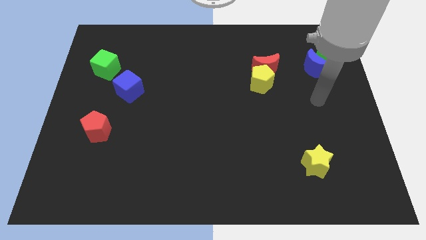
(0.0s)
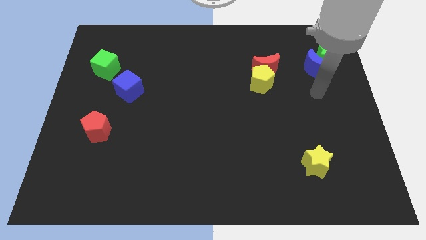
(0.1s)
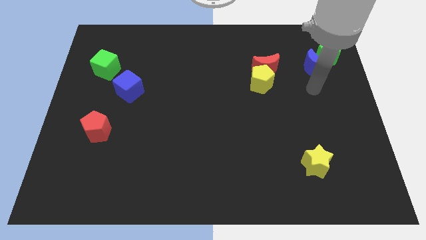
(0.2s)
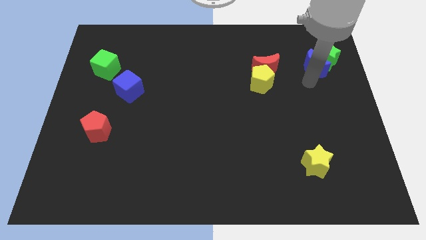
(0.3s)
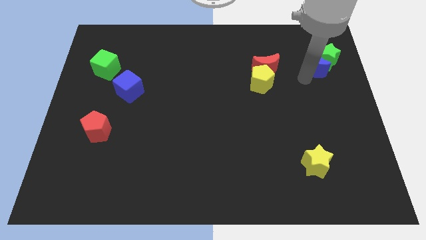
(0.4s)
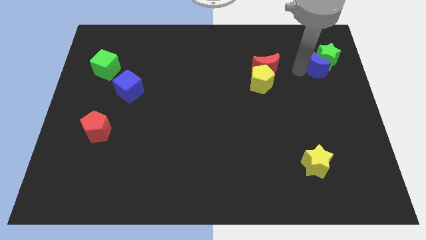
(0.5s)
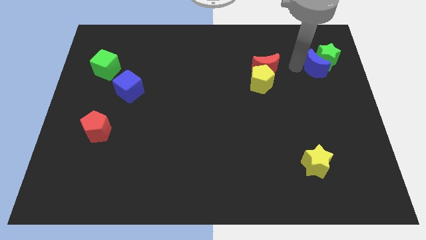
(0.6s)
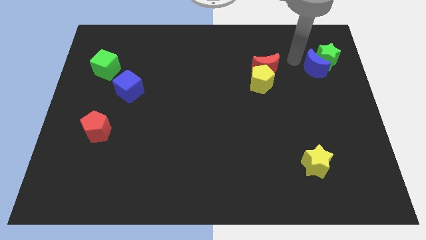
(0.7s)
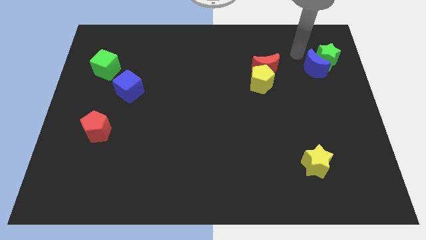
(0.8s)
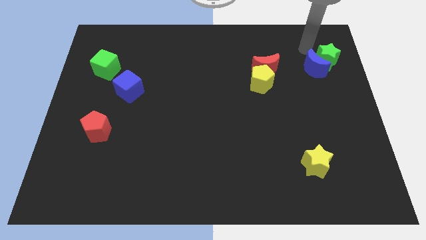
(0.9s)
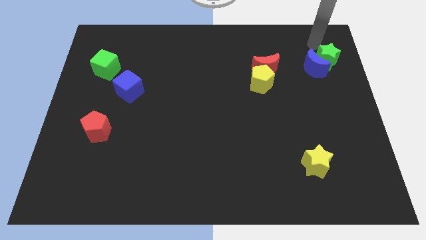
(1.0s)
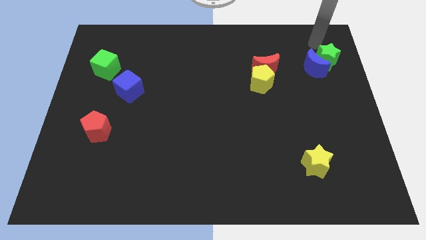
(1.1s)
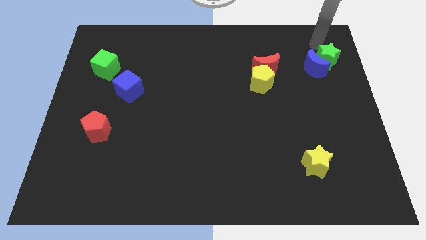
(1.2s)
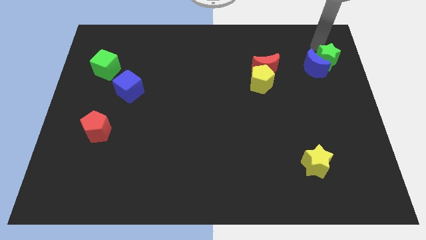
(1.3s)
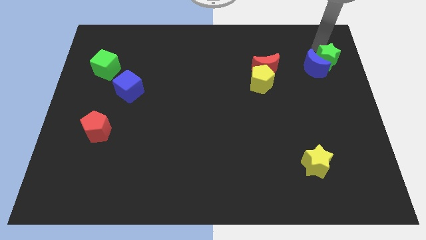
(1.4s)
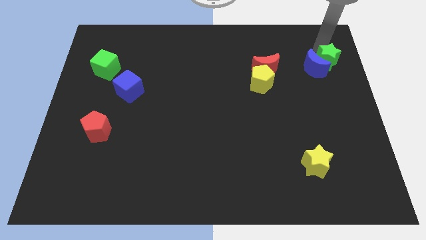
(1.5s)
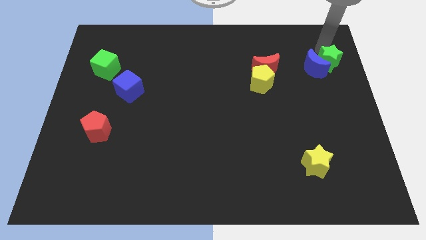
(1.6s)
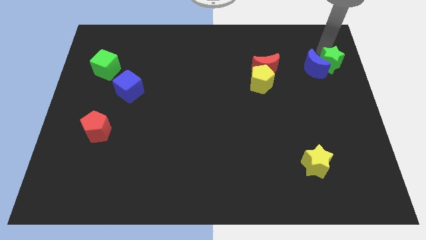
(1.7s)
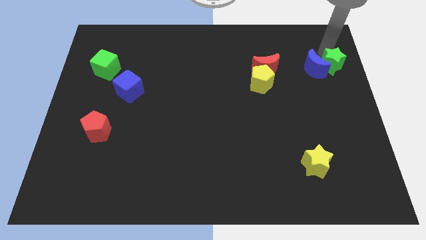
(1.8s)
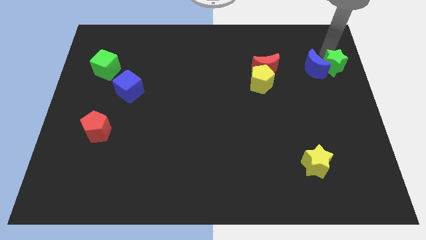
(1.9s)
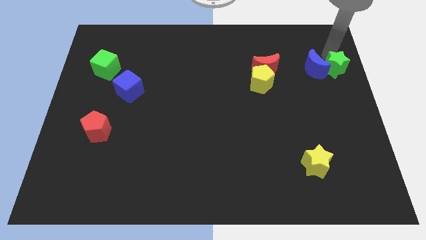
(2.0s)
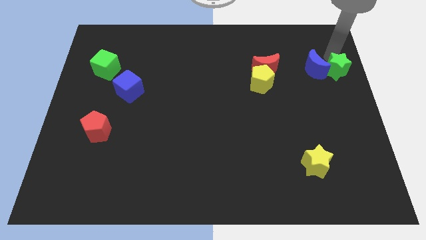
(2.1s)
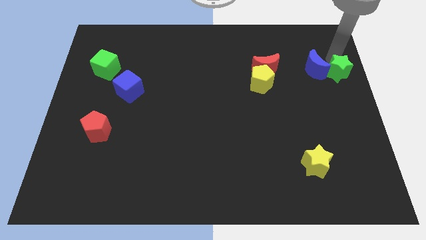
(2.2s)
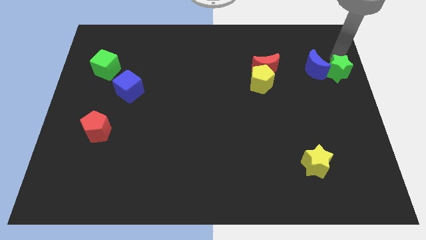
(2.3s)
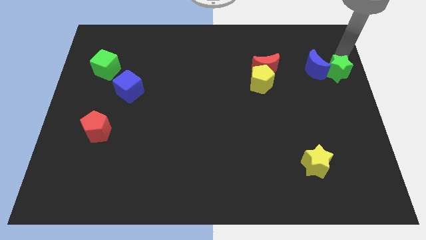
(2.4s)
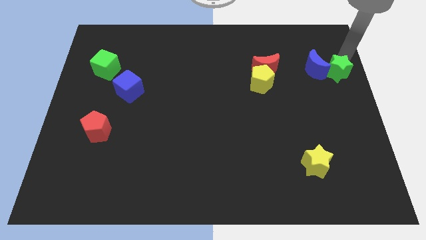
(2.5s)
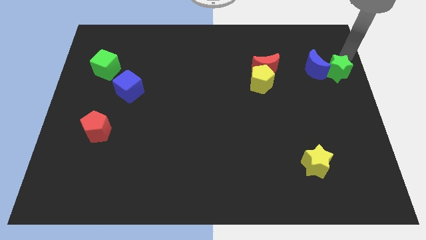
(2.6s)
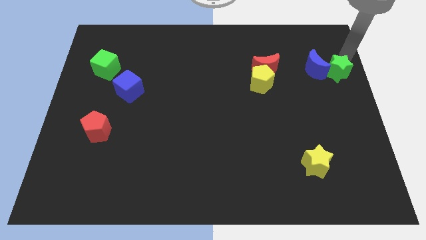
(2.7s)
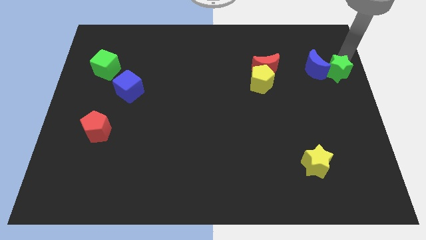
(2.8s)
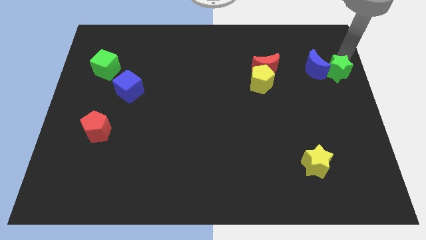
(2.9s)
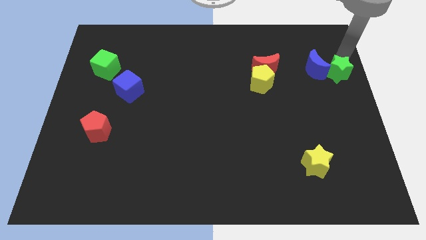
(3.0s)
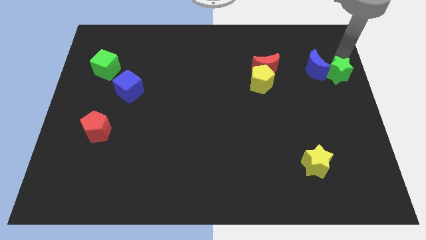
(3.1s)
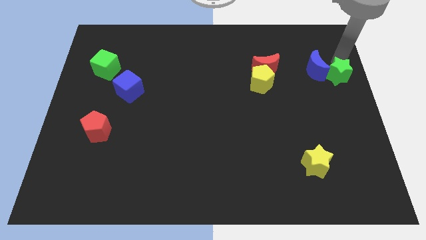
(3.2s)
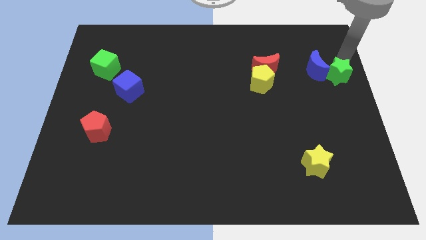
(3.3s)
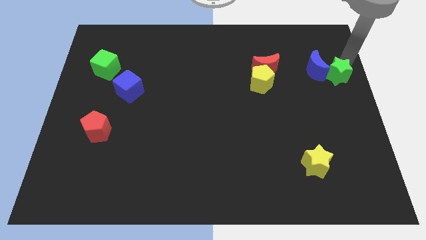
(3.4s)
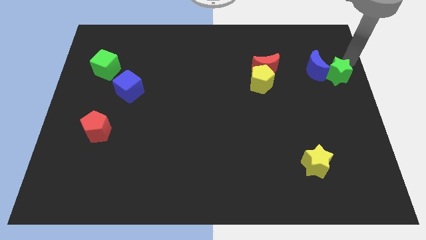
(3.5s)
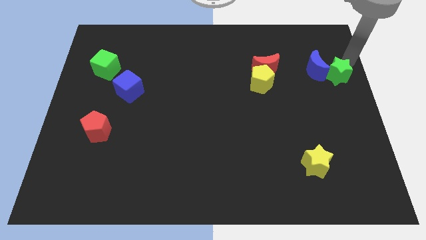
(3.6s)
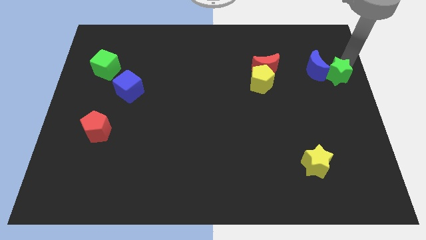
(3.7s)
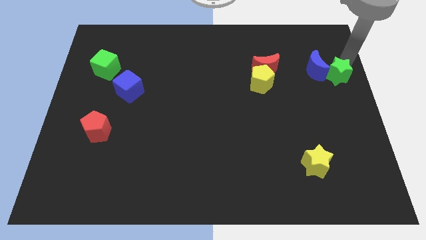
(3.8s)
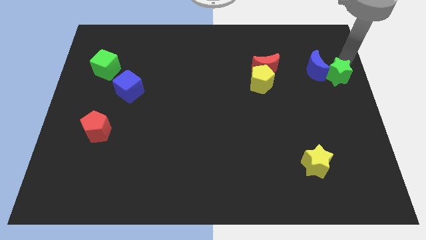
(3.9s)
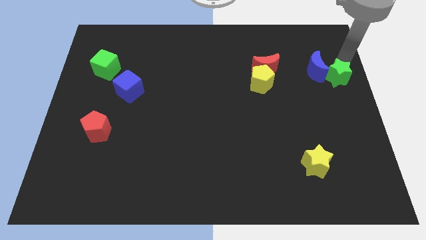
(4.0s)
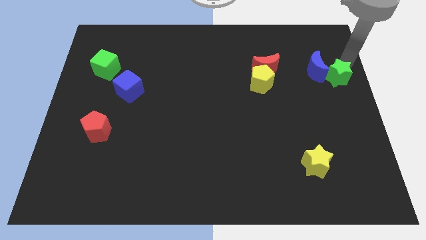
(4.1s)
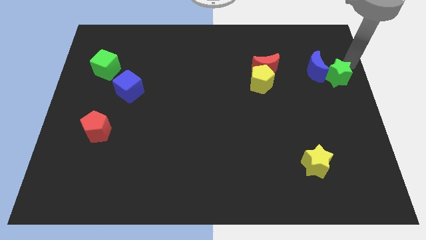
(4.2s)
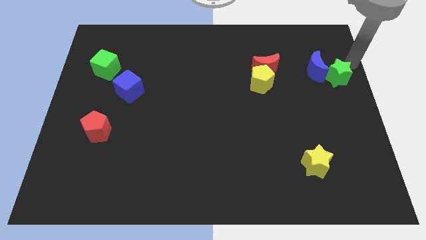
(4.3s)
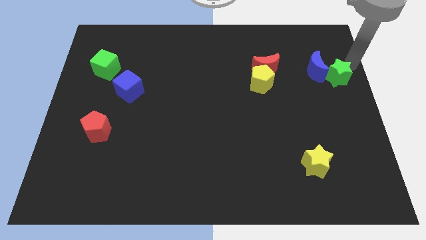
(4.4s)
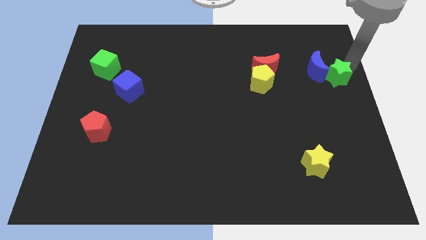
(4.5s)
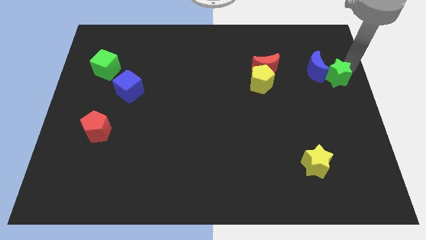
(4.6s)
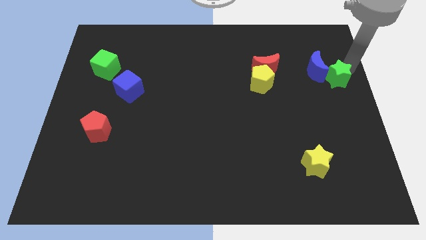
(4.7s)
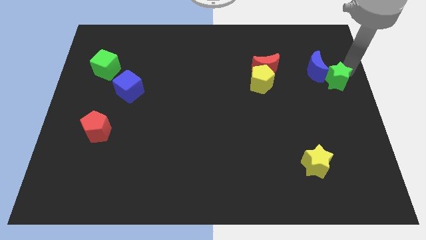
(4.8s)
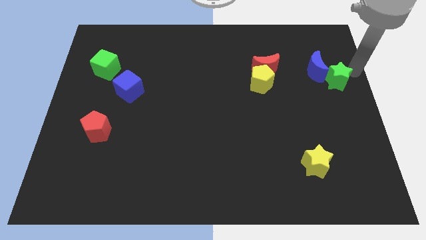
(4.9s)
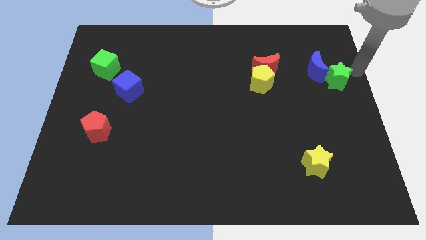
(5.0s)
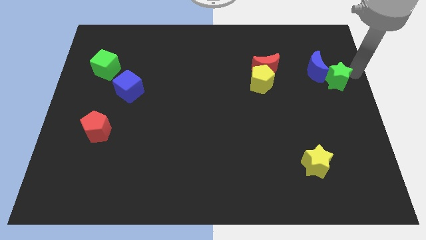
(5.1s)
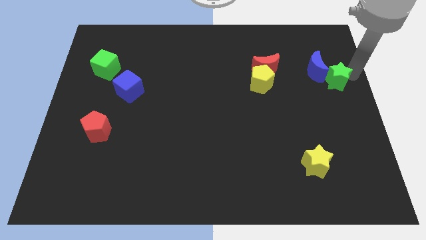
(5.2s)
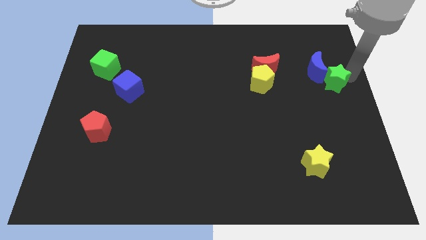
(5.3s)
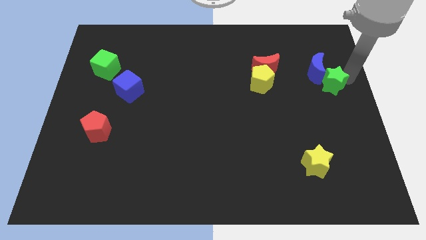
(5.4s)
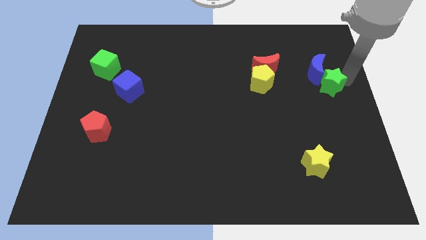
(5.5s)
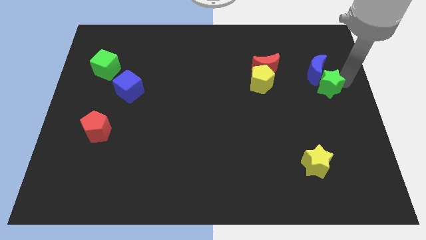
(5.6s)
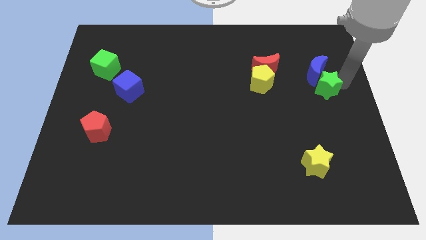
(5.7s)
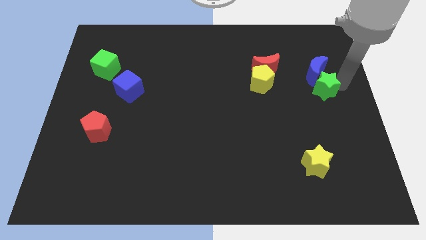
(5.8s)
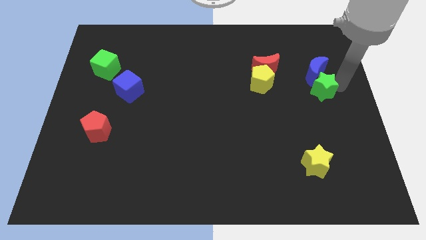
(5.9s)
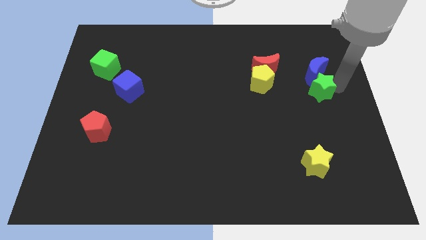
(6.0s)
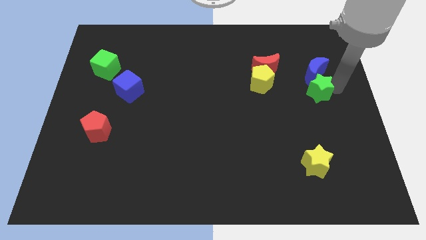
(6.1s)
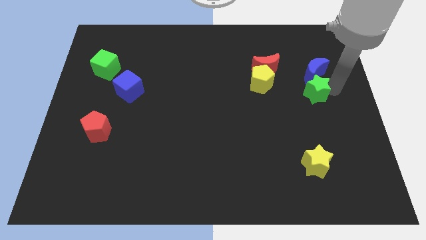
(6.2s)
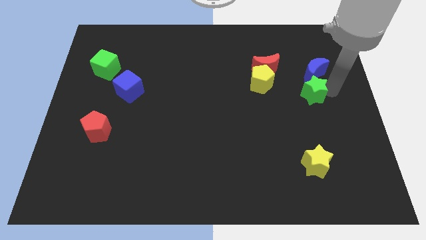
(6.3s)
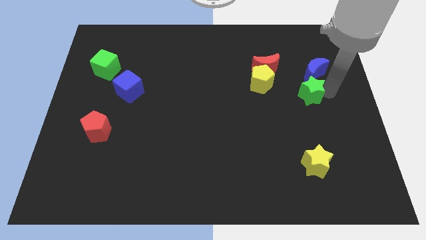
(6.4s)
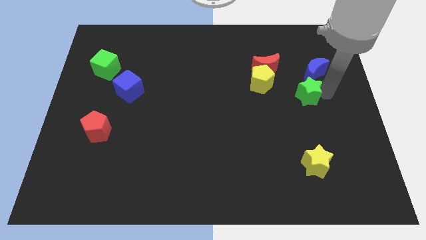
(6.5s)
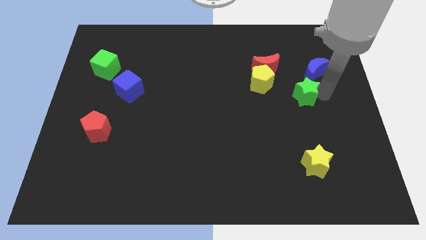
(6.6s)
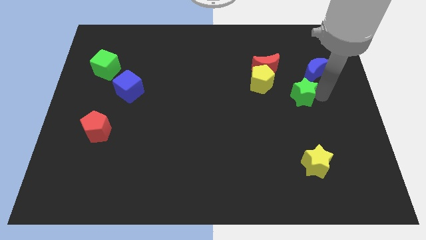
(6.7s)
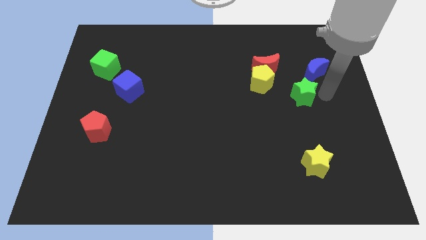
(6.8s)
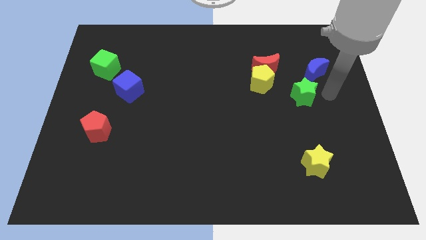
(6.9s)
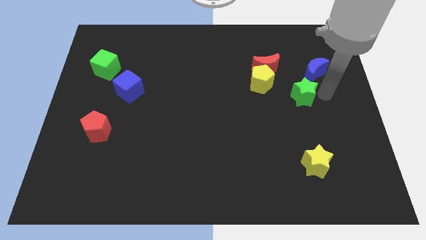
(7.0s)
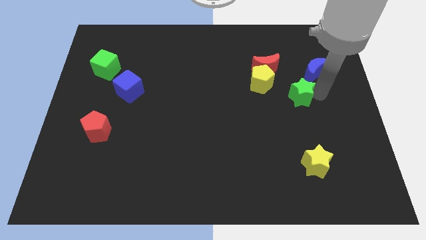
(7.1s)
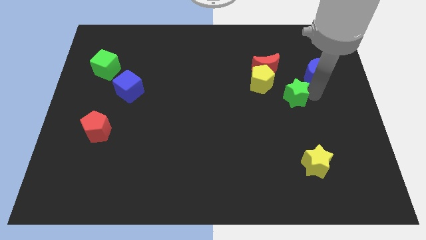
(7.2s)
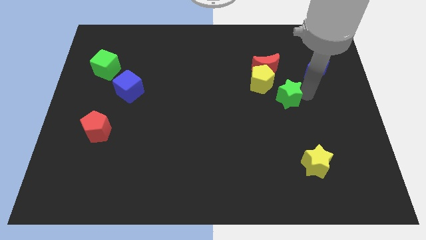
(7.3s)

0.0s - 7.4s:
put the green star below the red moon
